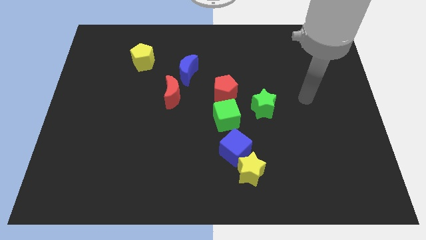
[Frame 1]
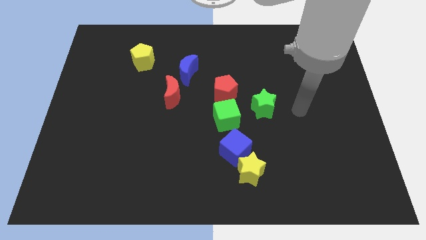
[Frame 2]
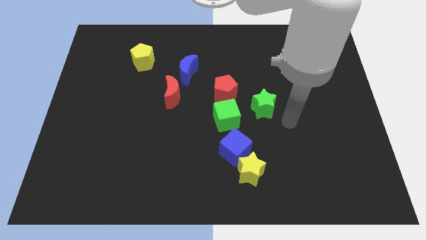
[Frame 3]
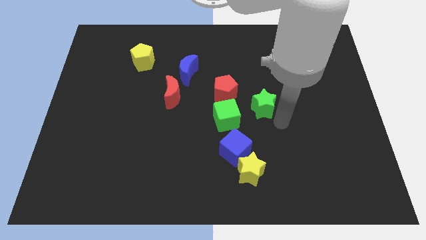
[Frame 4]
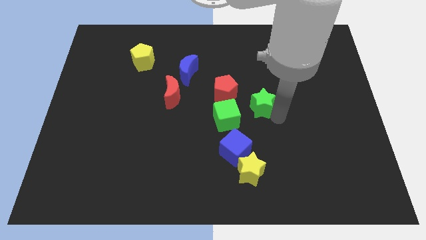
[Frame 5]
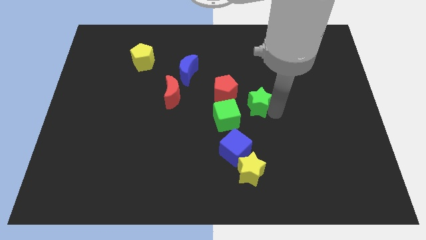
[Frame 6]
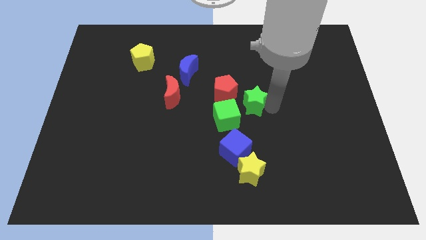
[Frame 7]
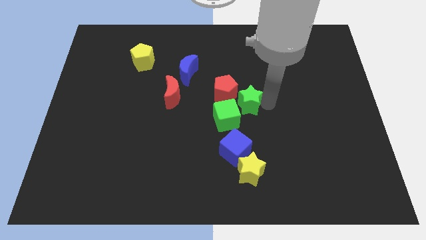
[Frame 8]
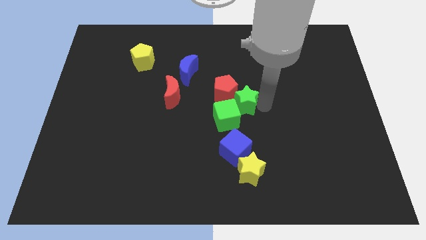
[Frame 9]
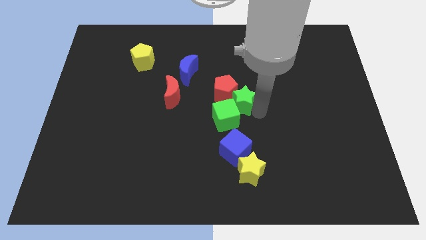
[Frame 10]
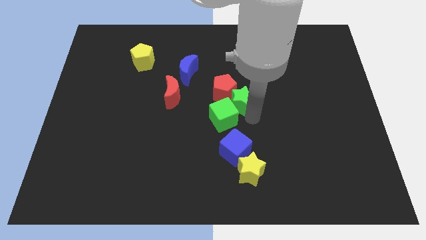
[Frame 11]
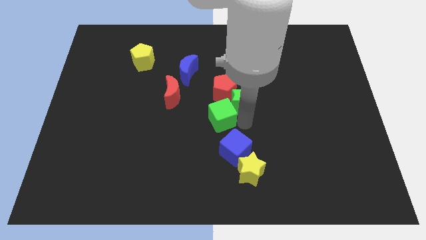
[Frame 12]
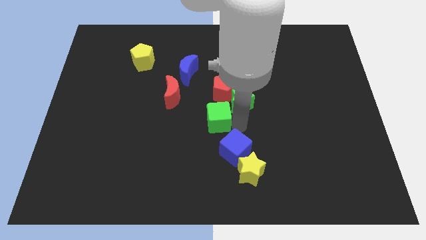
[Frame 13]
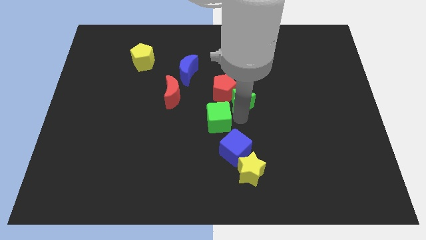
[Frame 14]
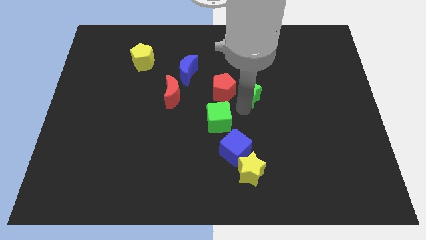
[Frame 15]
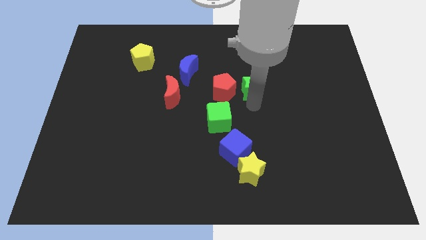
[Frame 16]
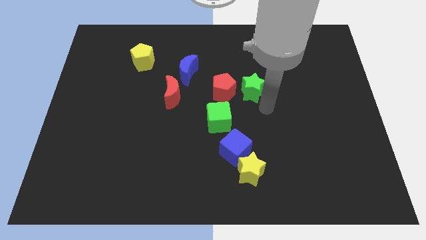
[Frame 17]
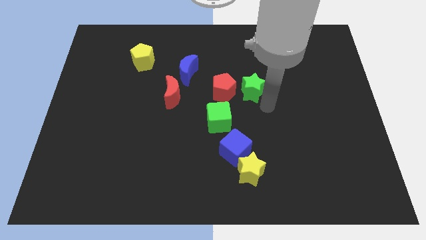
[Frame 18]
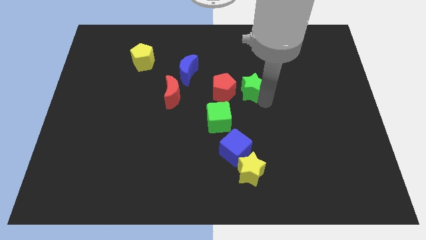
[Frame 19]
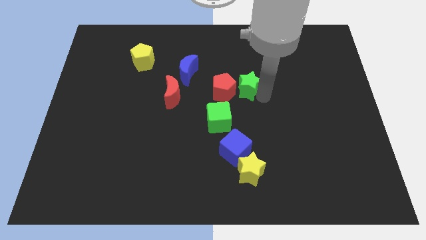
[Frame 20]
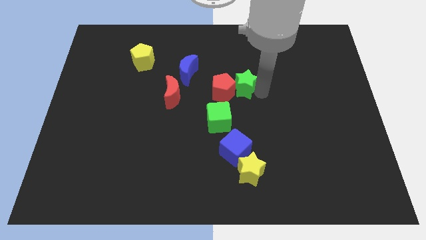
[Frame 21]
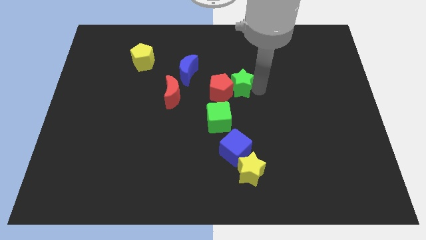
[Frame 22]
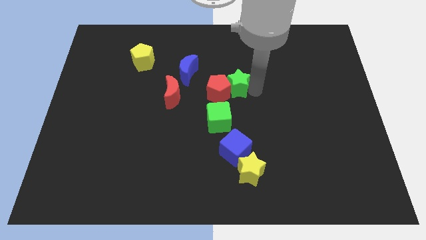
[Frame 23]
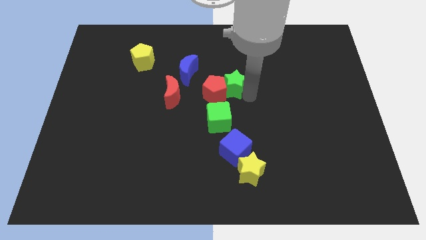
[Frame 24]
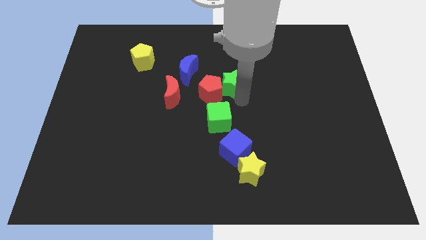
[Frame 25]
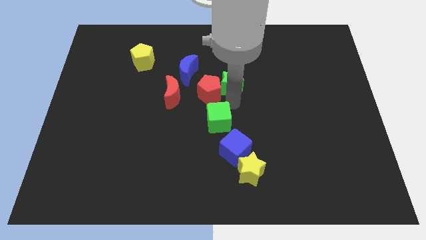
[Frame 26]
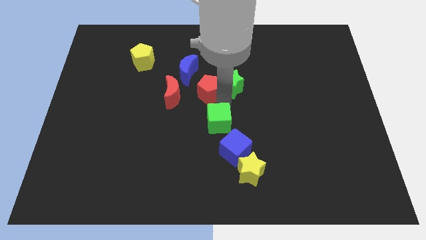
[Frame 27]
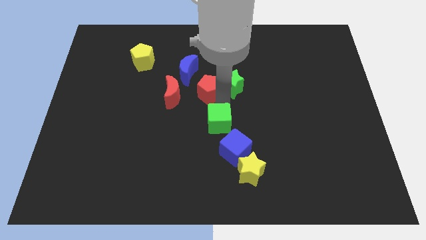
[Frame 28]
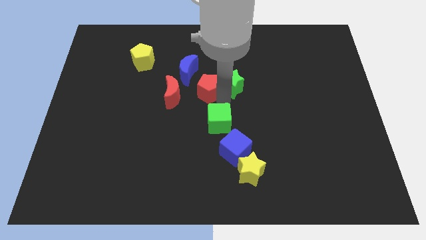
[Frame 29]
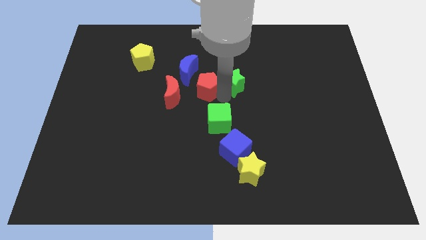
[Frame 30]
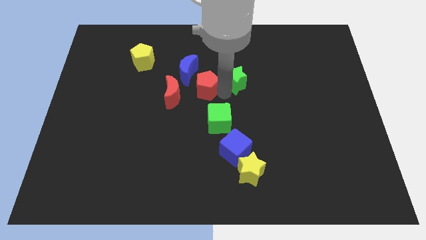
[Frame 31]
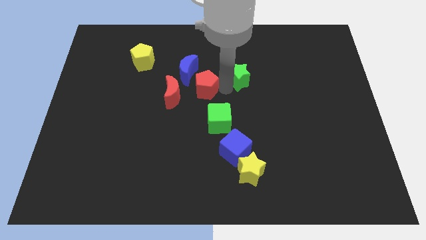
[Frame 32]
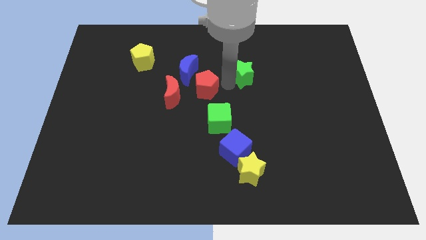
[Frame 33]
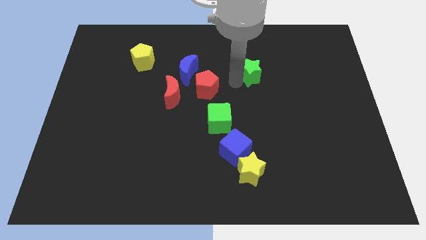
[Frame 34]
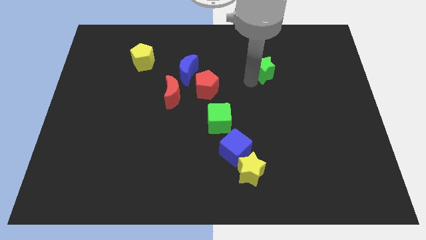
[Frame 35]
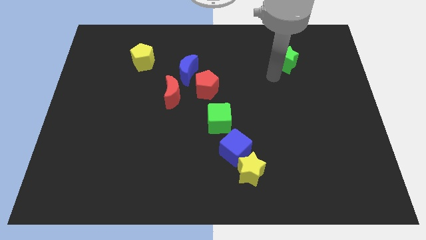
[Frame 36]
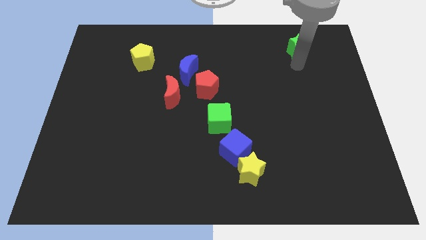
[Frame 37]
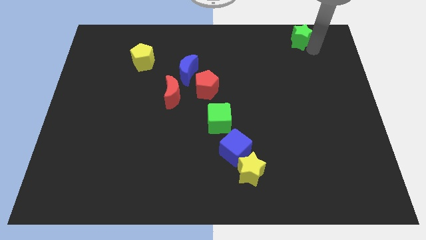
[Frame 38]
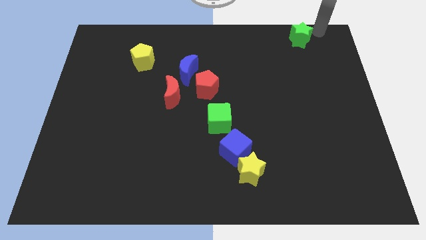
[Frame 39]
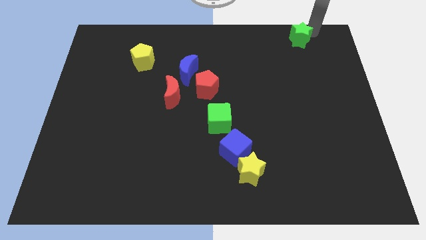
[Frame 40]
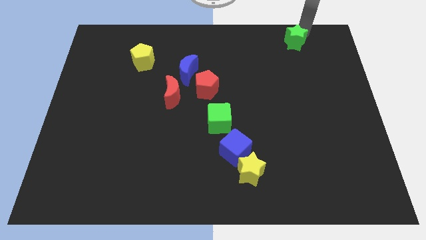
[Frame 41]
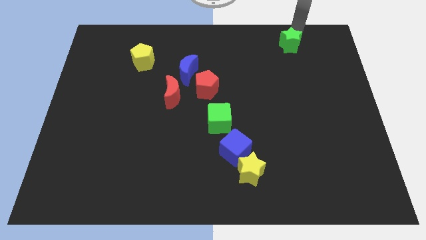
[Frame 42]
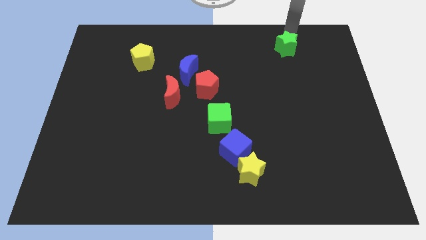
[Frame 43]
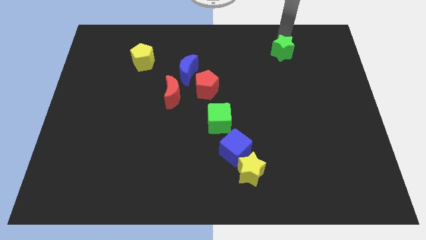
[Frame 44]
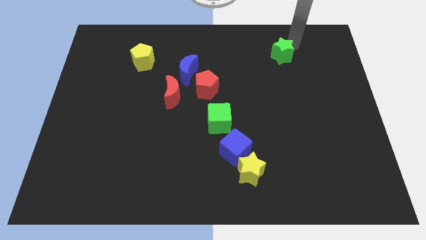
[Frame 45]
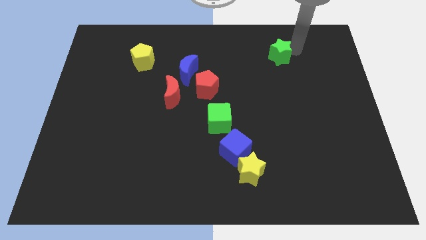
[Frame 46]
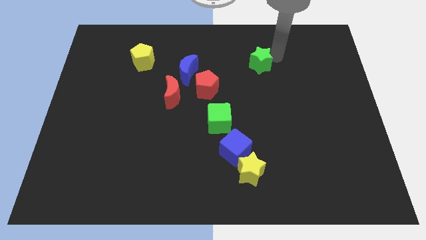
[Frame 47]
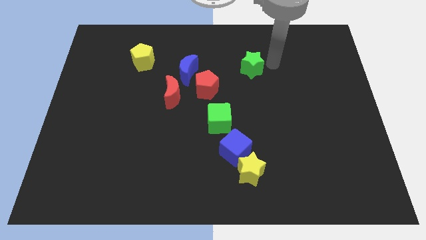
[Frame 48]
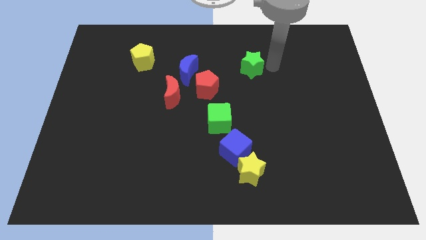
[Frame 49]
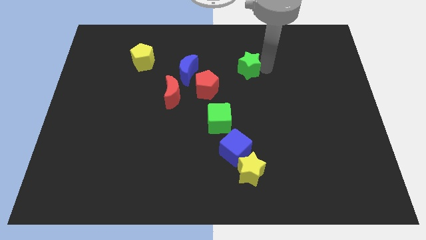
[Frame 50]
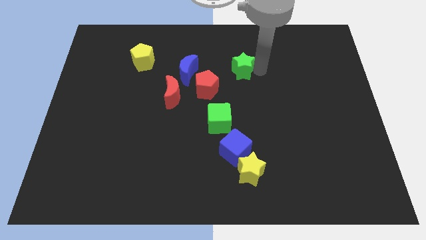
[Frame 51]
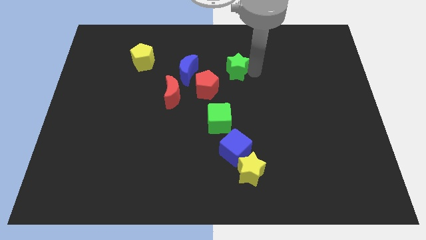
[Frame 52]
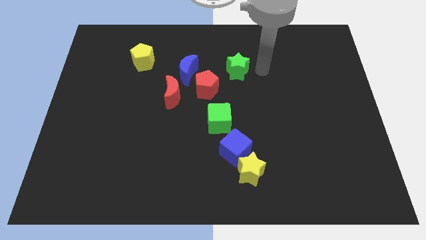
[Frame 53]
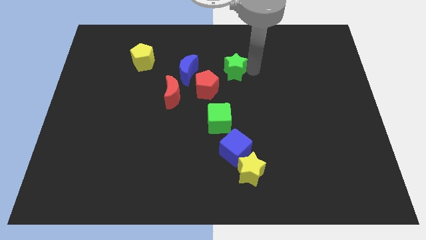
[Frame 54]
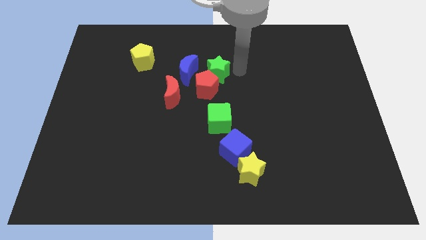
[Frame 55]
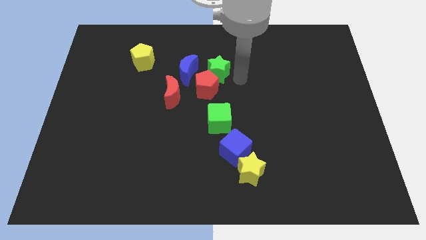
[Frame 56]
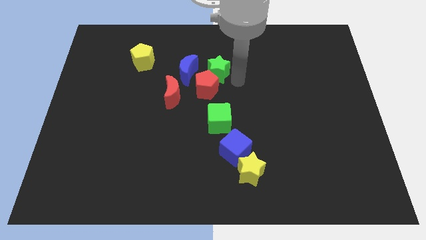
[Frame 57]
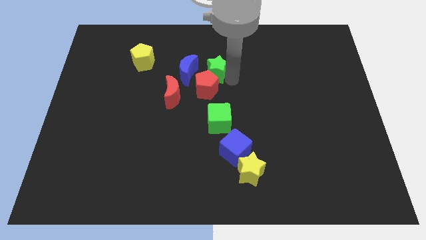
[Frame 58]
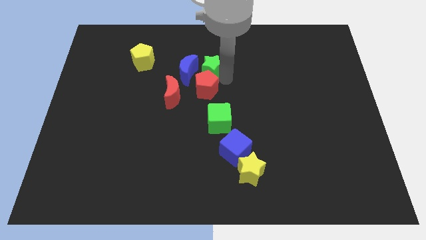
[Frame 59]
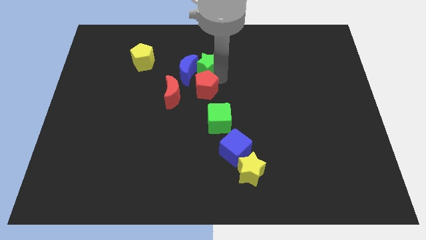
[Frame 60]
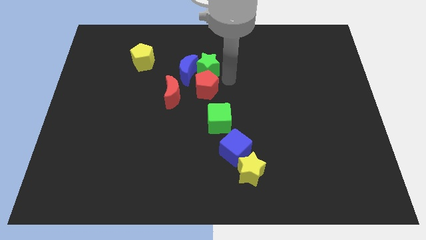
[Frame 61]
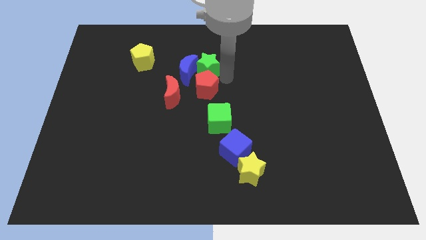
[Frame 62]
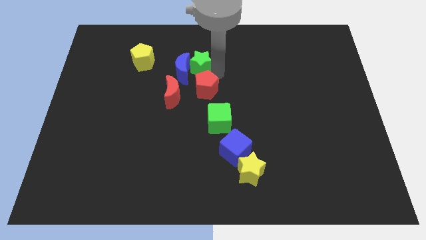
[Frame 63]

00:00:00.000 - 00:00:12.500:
slide the green star right of the yellow pentagon

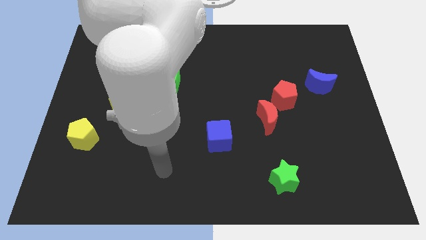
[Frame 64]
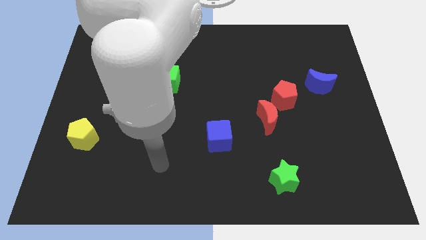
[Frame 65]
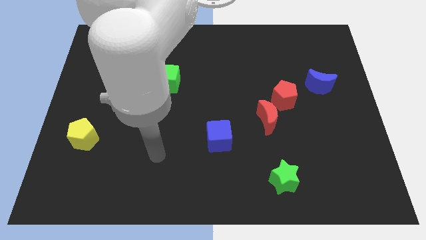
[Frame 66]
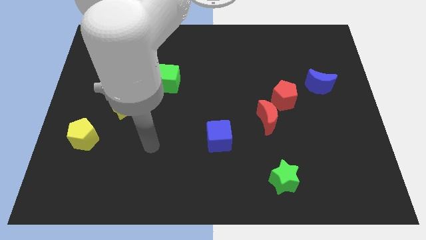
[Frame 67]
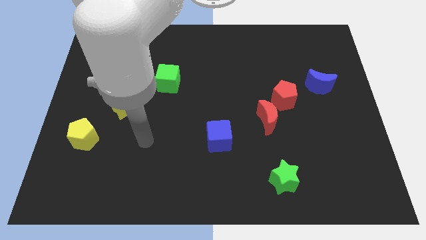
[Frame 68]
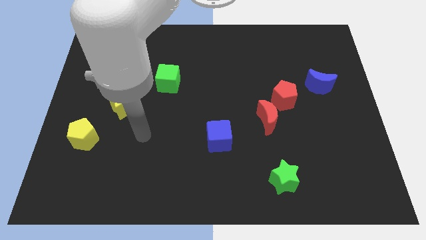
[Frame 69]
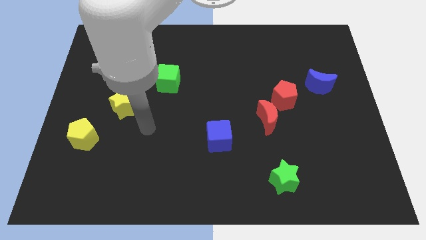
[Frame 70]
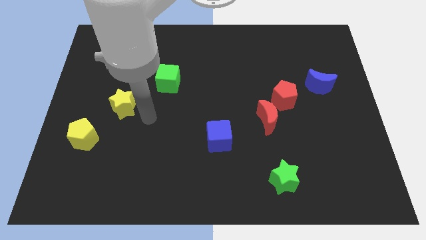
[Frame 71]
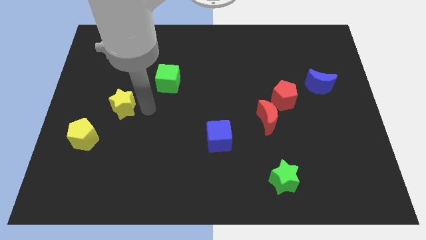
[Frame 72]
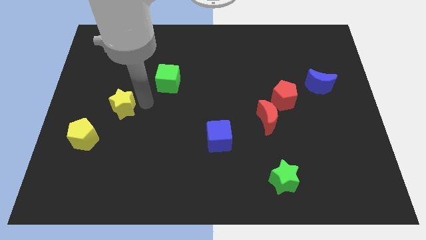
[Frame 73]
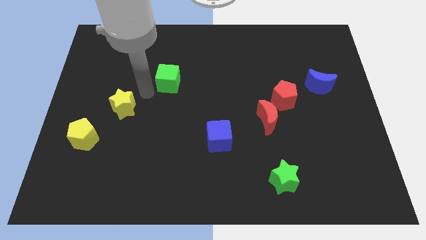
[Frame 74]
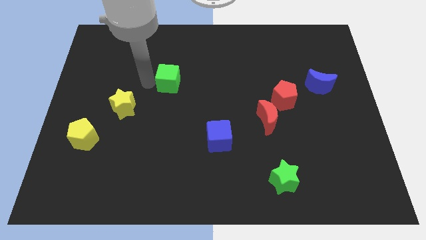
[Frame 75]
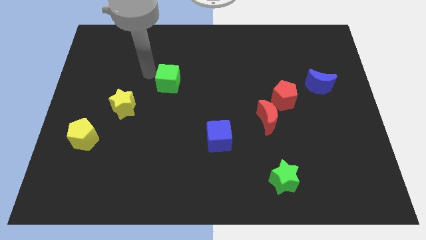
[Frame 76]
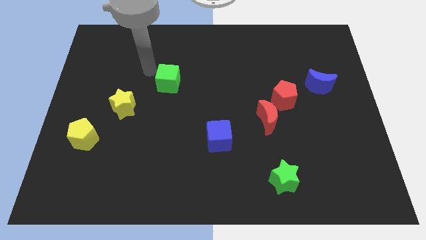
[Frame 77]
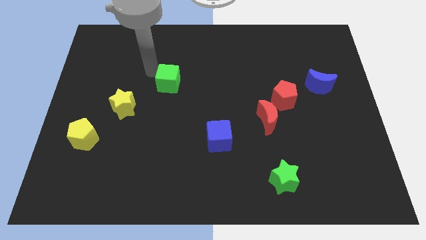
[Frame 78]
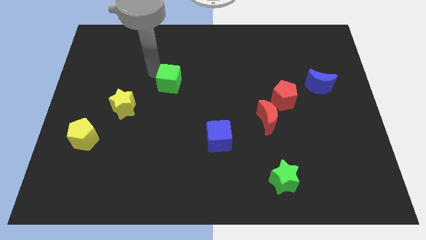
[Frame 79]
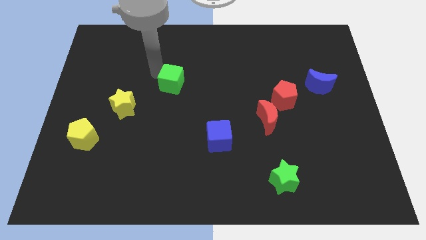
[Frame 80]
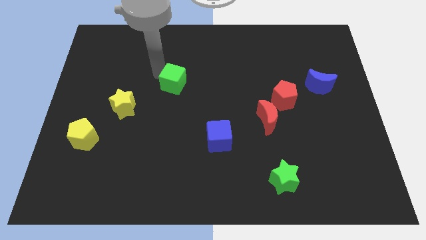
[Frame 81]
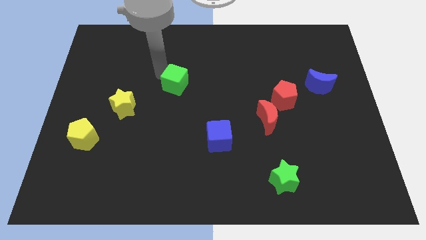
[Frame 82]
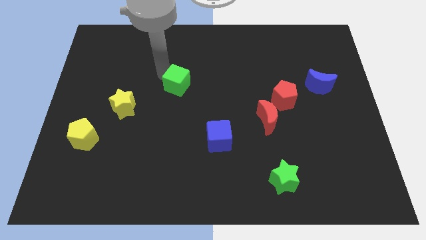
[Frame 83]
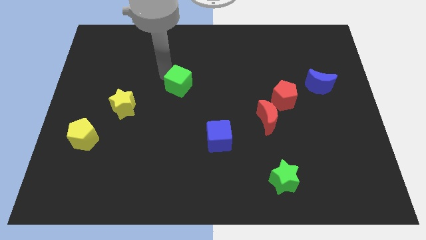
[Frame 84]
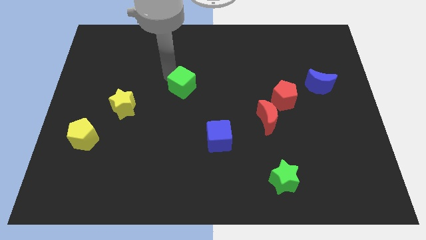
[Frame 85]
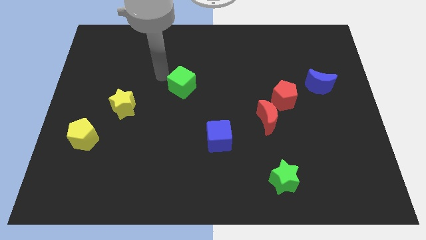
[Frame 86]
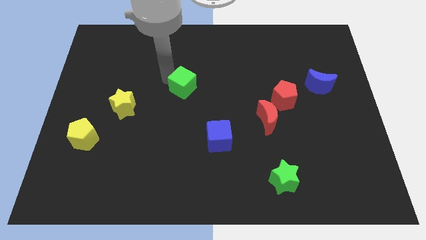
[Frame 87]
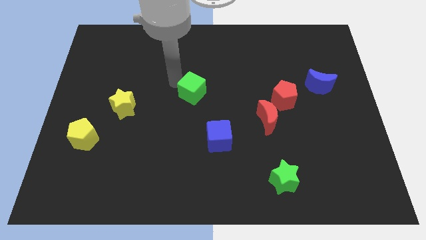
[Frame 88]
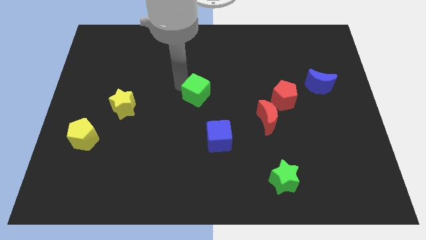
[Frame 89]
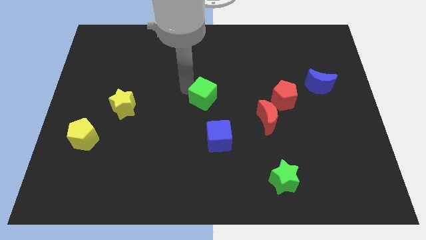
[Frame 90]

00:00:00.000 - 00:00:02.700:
push the green cube above the blue cube
